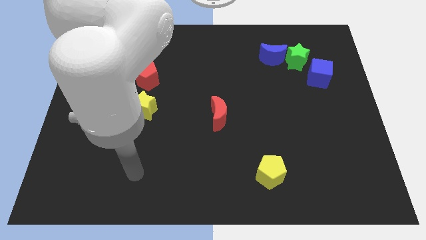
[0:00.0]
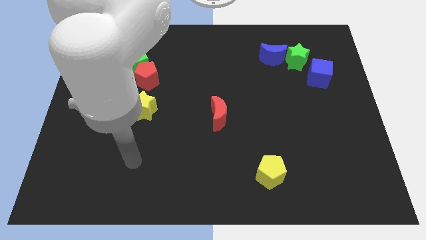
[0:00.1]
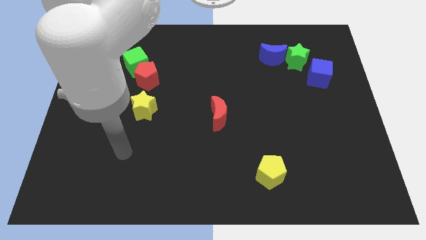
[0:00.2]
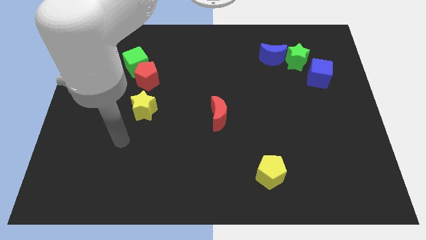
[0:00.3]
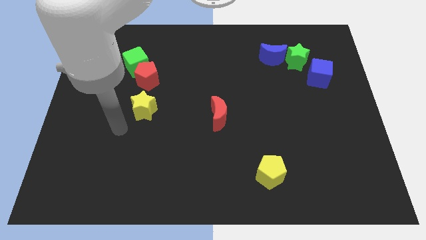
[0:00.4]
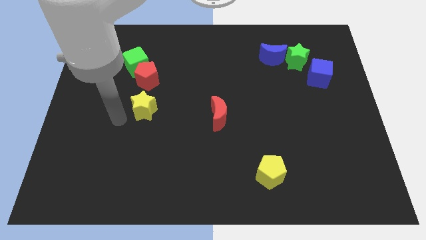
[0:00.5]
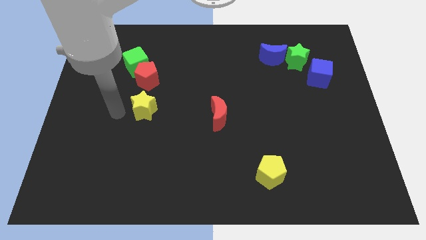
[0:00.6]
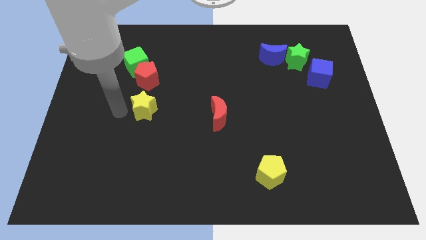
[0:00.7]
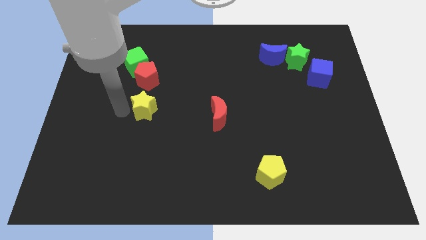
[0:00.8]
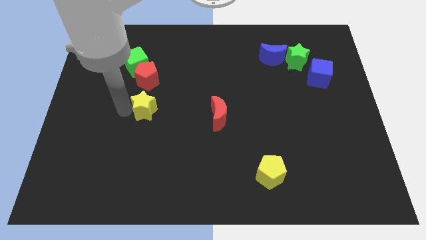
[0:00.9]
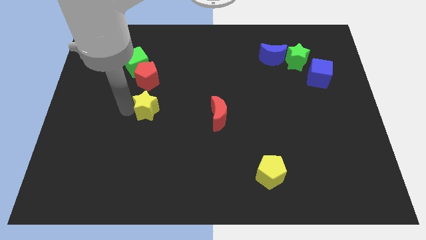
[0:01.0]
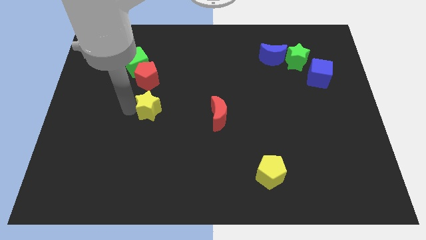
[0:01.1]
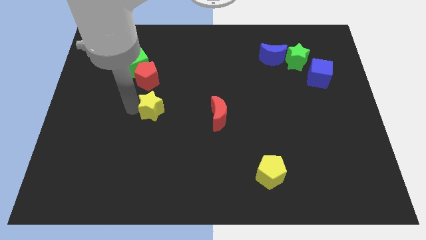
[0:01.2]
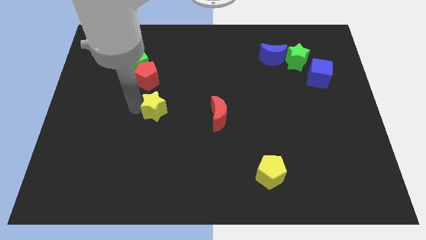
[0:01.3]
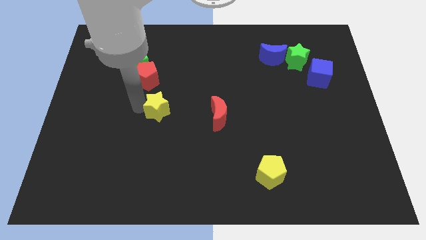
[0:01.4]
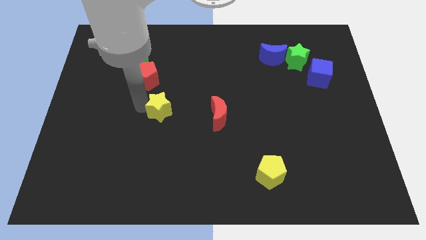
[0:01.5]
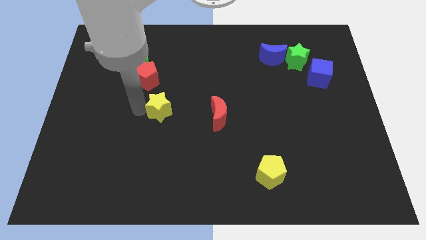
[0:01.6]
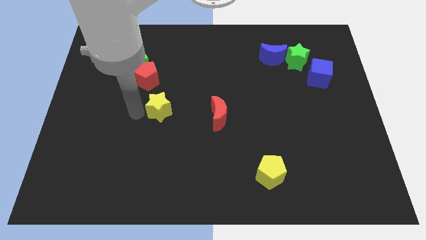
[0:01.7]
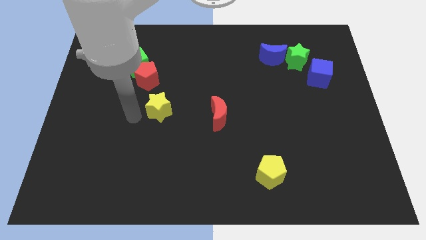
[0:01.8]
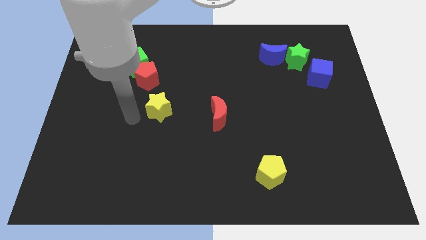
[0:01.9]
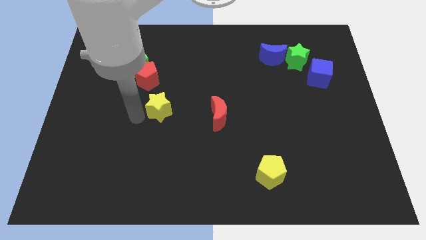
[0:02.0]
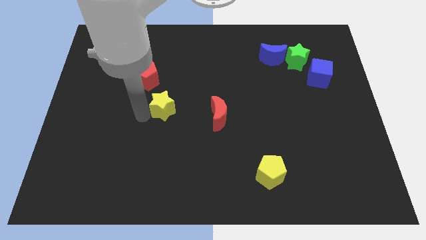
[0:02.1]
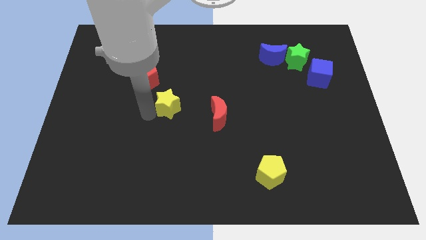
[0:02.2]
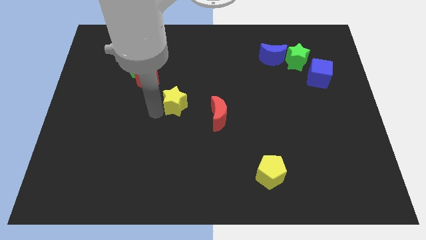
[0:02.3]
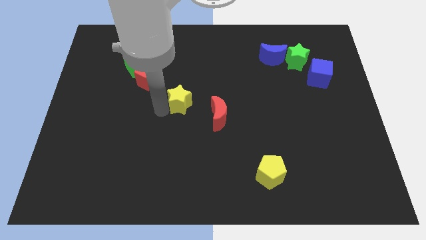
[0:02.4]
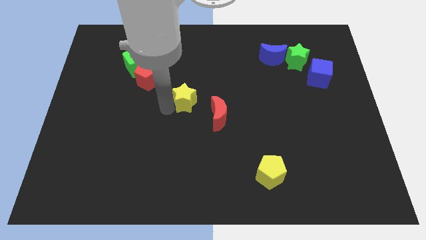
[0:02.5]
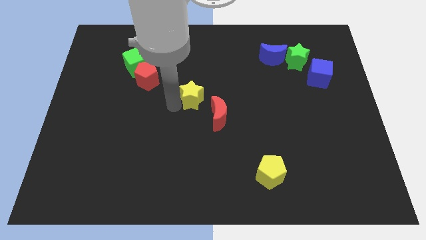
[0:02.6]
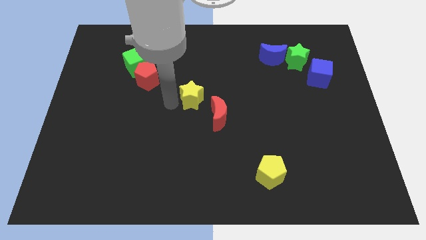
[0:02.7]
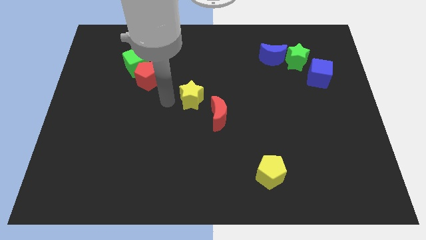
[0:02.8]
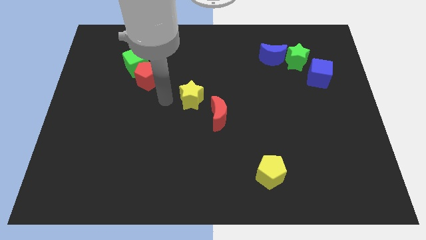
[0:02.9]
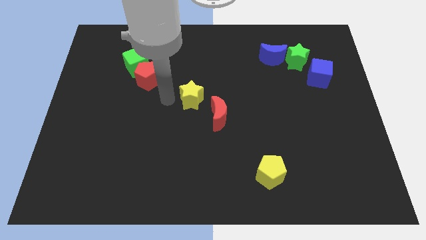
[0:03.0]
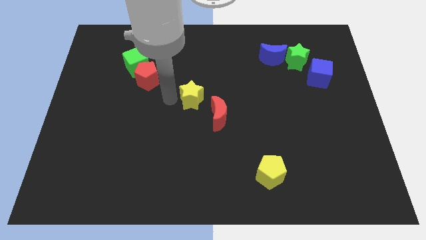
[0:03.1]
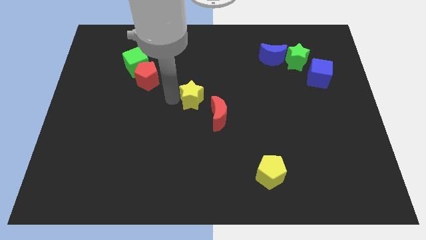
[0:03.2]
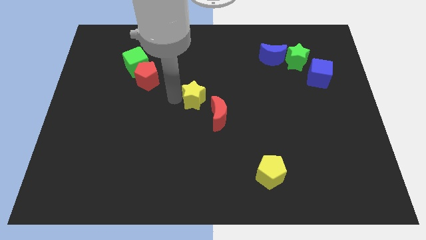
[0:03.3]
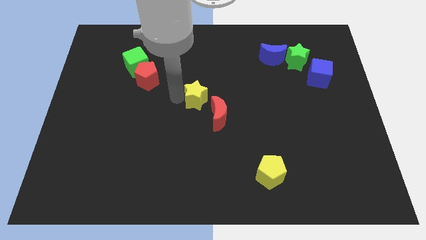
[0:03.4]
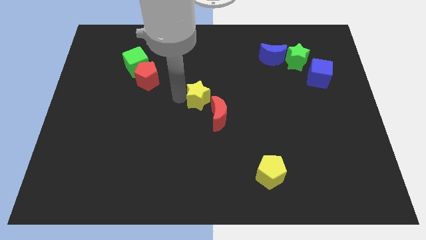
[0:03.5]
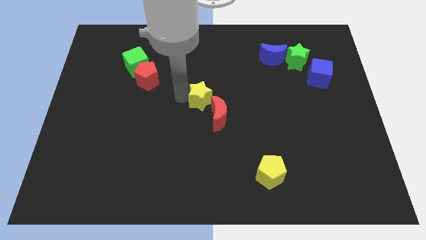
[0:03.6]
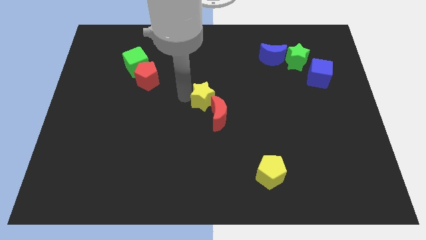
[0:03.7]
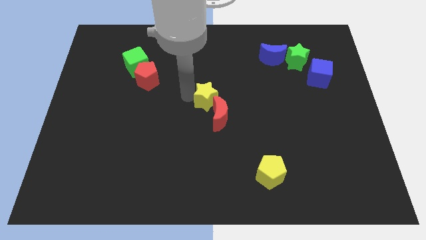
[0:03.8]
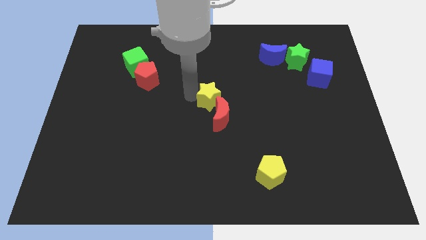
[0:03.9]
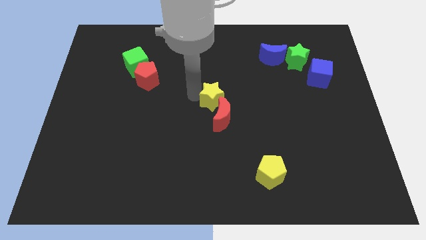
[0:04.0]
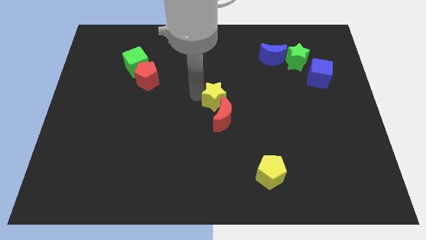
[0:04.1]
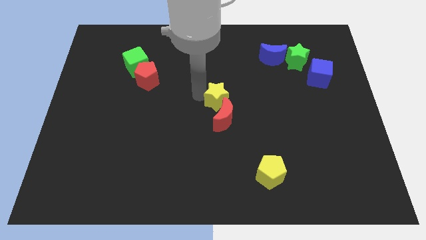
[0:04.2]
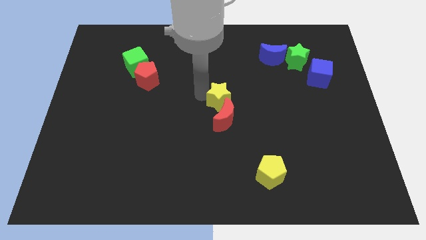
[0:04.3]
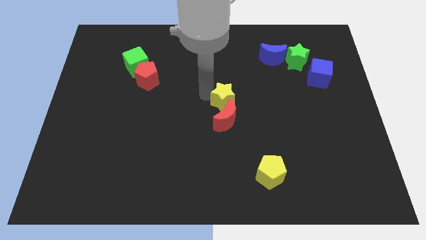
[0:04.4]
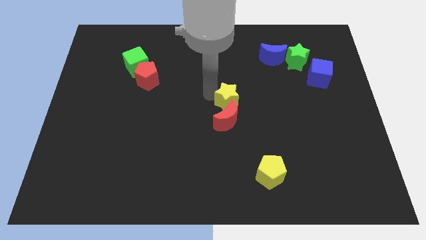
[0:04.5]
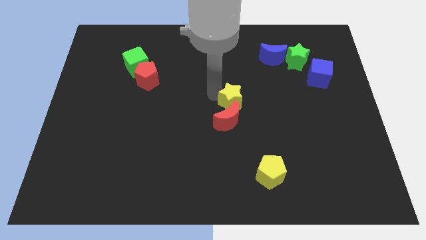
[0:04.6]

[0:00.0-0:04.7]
move the yellow star right

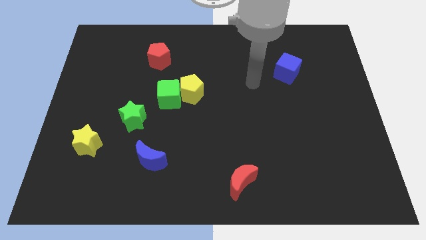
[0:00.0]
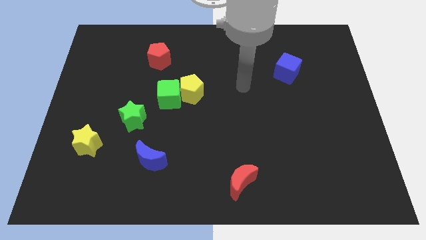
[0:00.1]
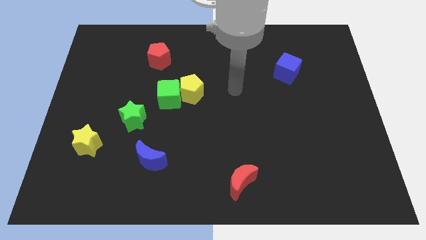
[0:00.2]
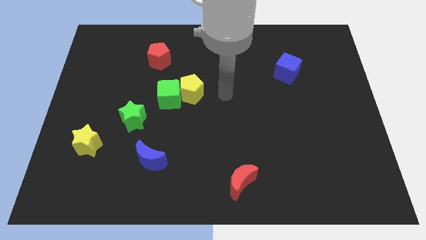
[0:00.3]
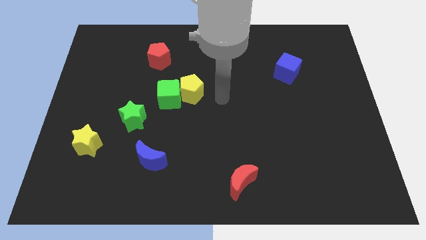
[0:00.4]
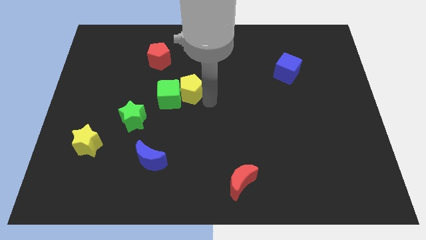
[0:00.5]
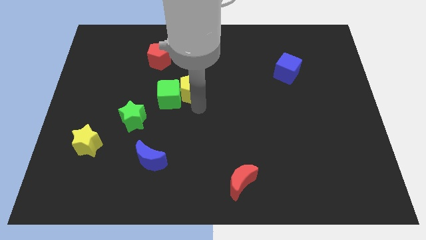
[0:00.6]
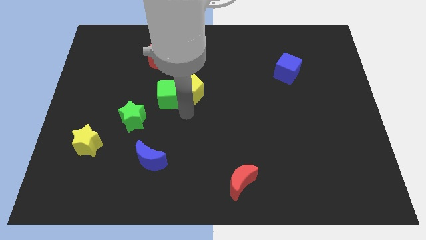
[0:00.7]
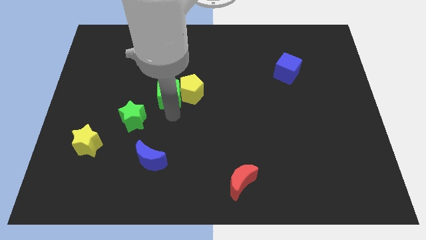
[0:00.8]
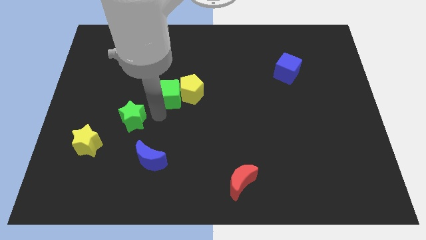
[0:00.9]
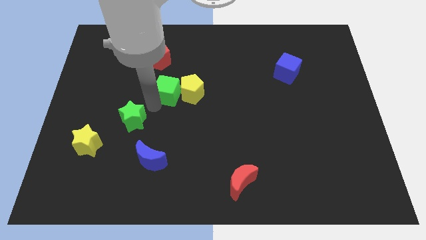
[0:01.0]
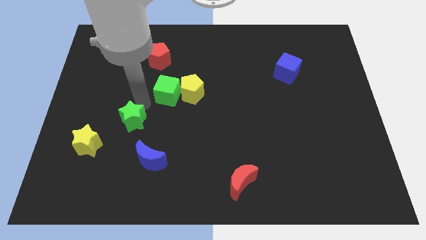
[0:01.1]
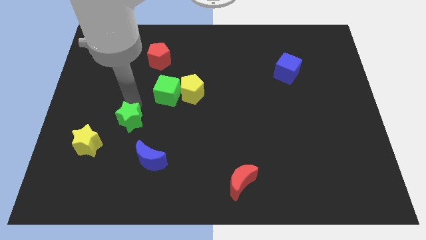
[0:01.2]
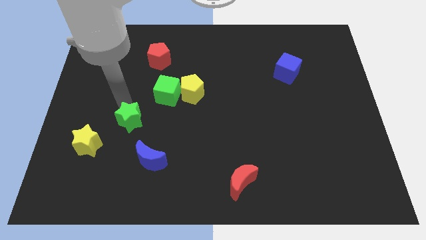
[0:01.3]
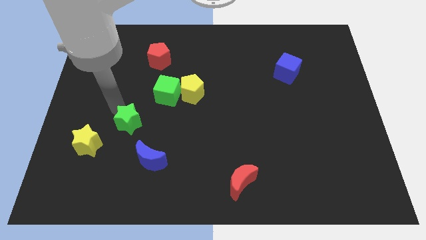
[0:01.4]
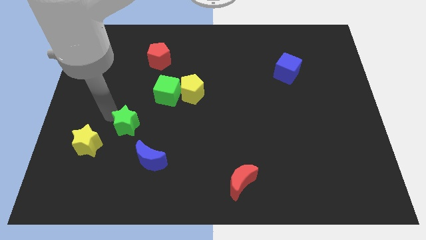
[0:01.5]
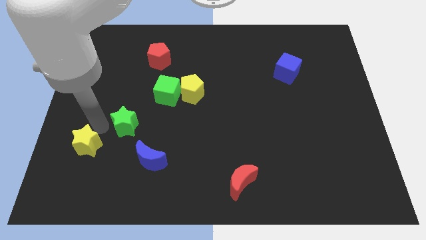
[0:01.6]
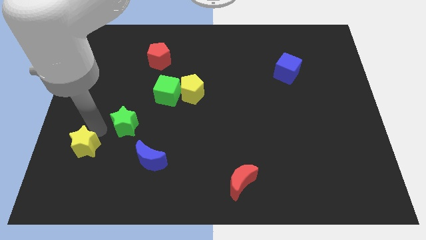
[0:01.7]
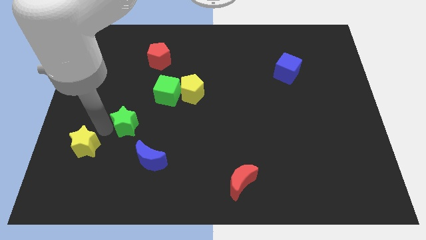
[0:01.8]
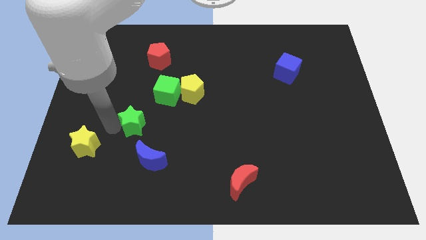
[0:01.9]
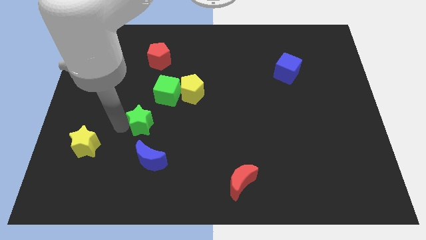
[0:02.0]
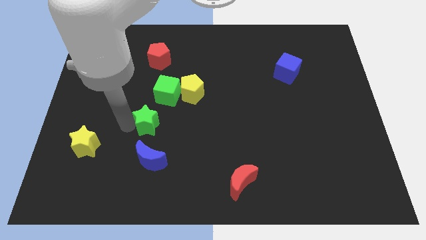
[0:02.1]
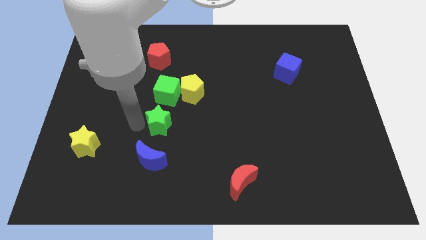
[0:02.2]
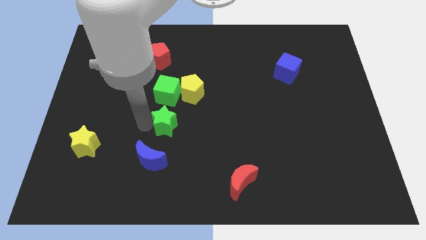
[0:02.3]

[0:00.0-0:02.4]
push the green star to the right slightly

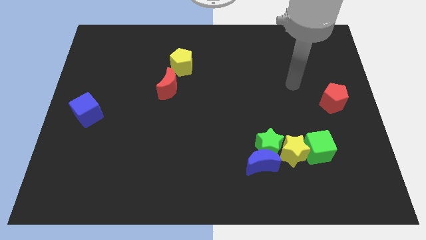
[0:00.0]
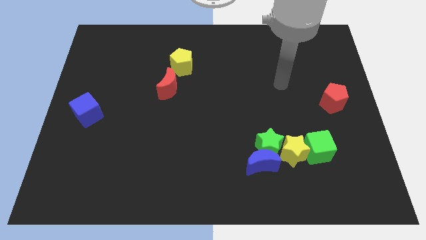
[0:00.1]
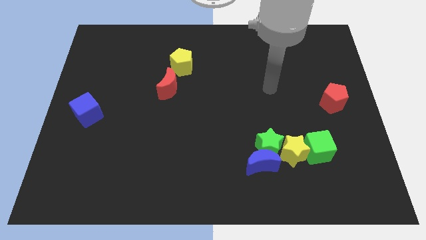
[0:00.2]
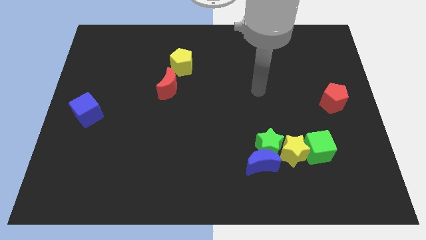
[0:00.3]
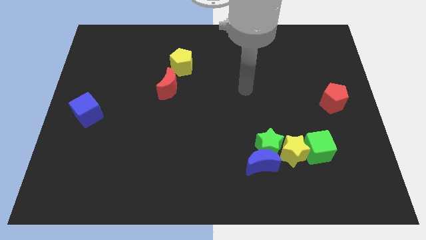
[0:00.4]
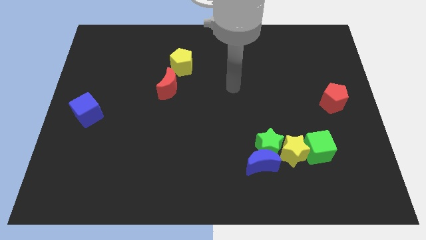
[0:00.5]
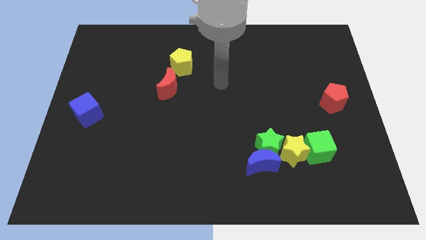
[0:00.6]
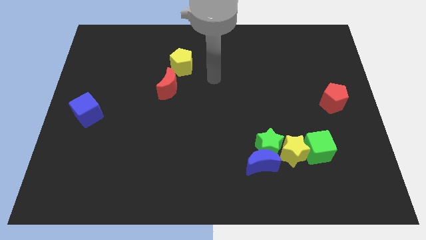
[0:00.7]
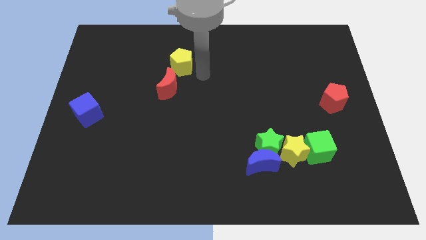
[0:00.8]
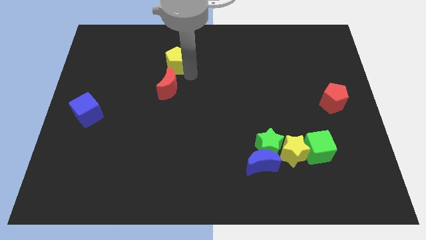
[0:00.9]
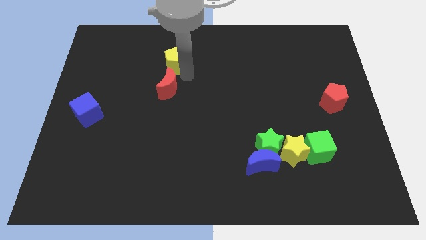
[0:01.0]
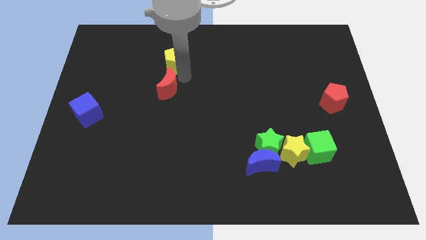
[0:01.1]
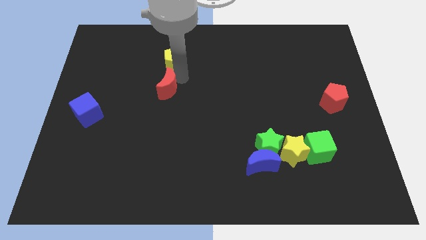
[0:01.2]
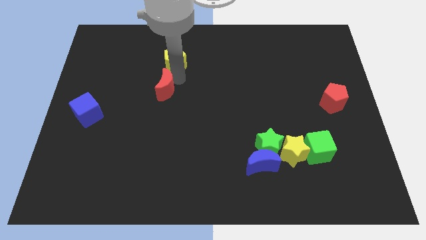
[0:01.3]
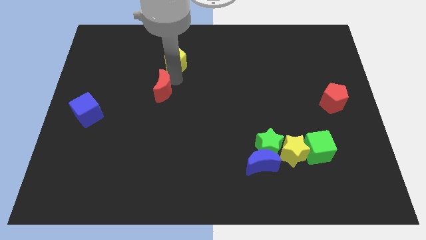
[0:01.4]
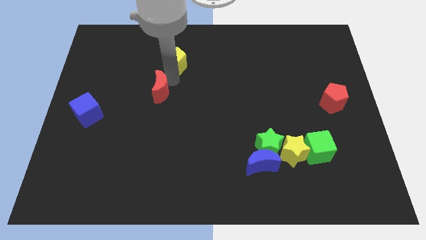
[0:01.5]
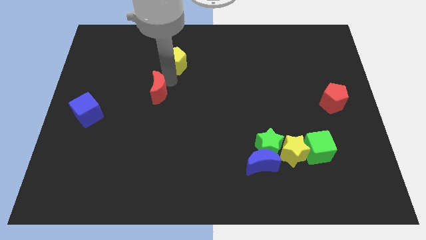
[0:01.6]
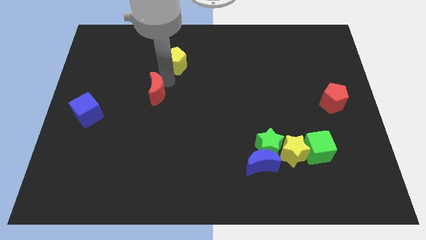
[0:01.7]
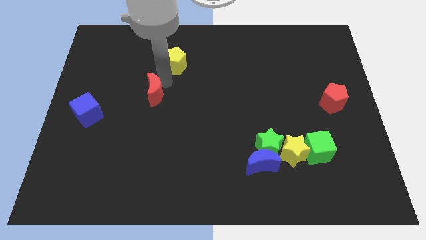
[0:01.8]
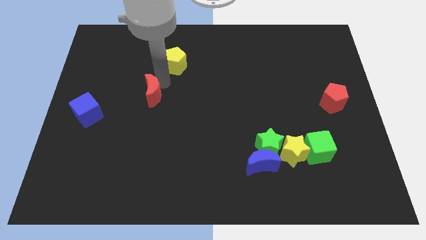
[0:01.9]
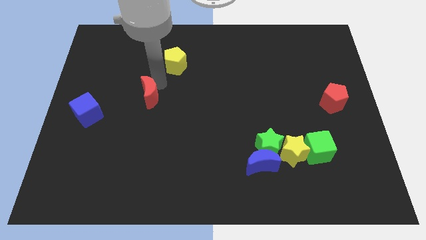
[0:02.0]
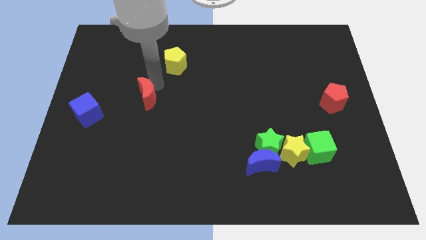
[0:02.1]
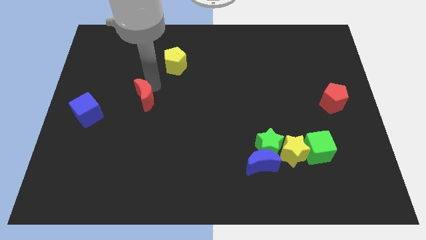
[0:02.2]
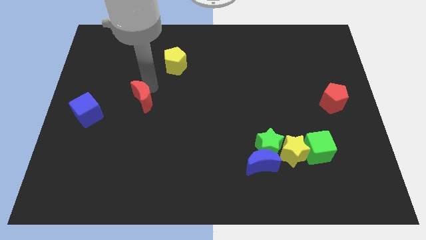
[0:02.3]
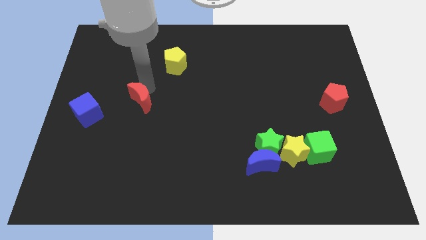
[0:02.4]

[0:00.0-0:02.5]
move the red moon a bit down and to the left diagonally
